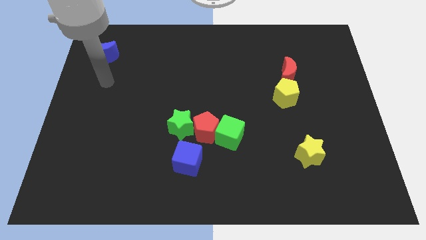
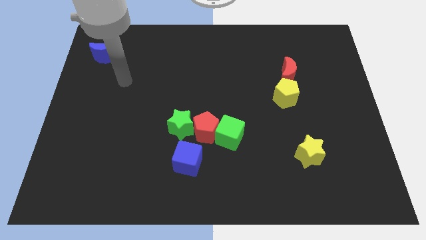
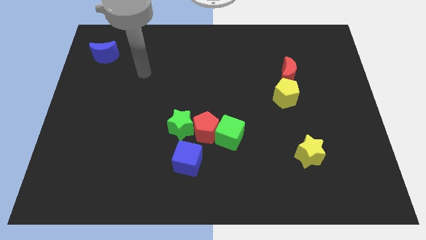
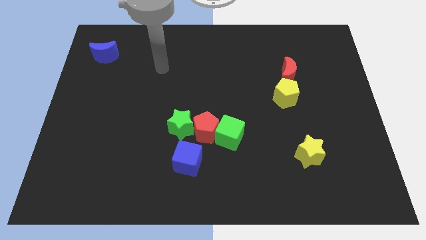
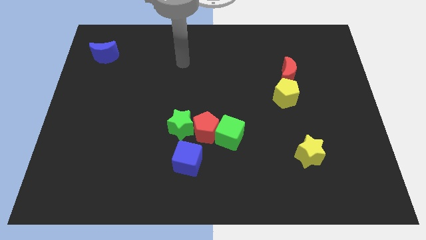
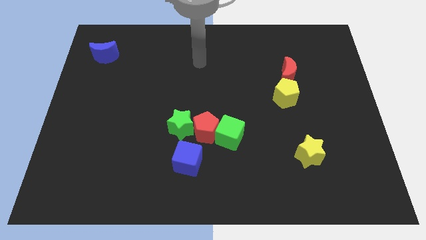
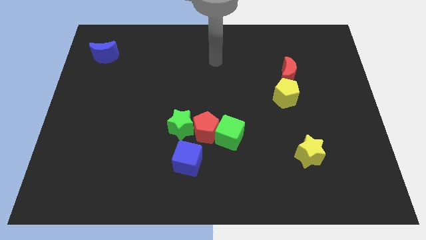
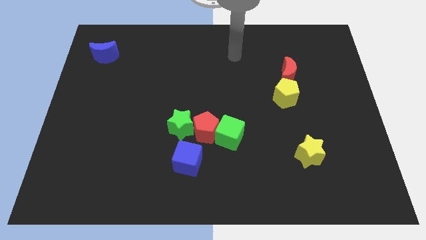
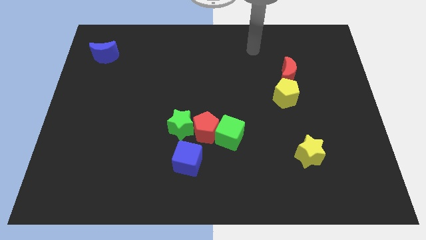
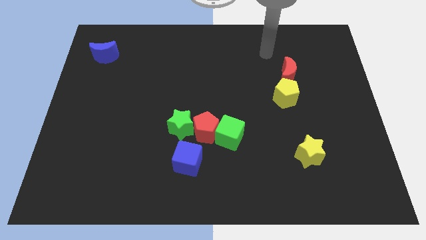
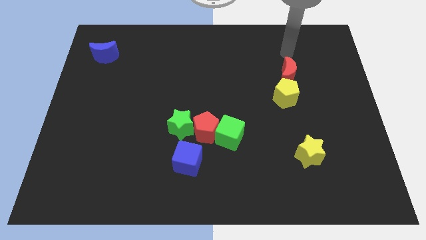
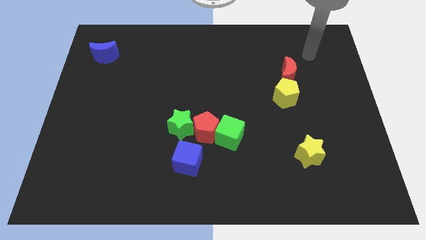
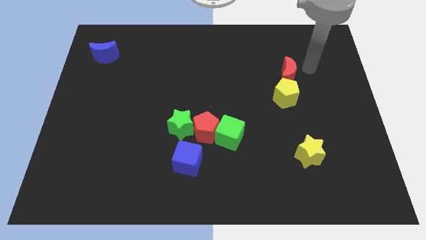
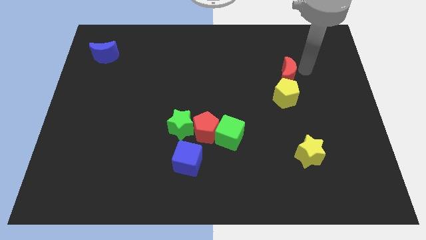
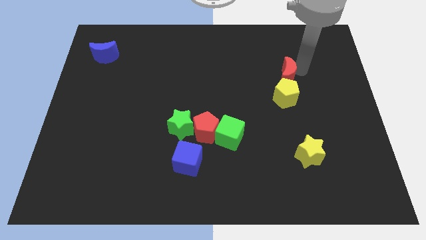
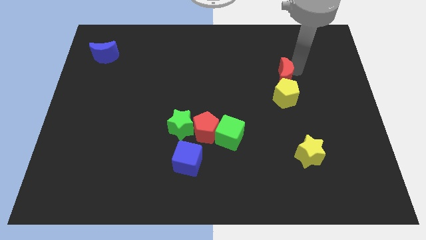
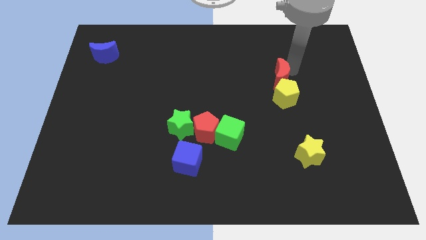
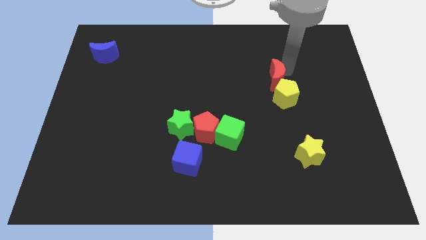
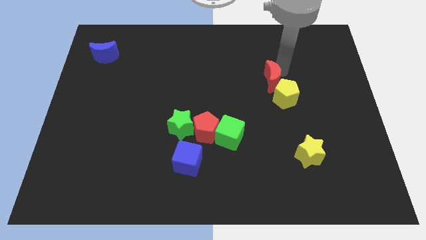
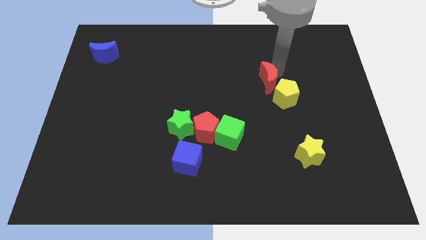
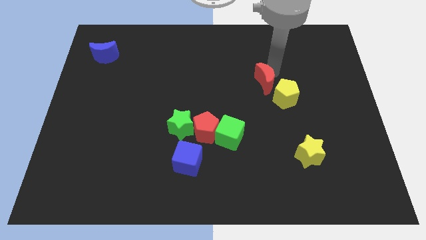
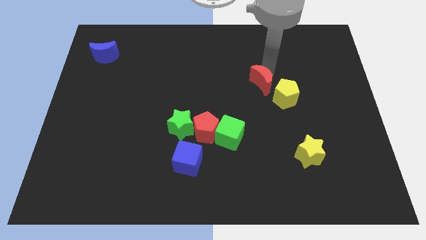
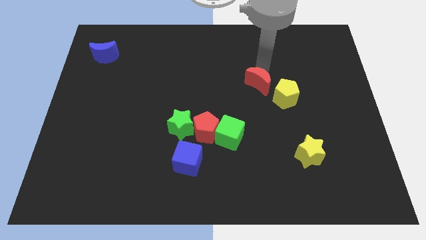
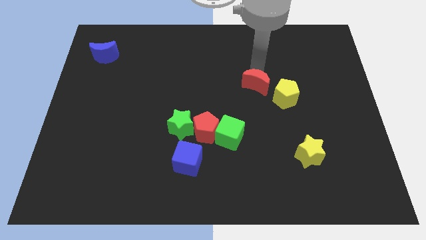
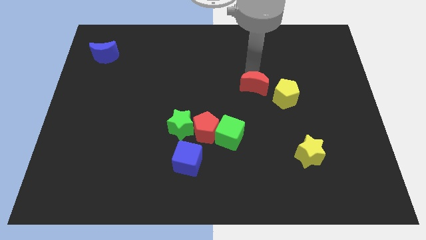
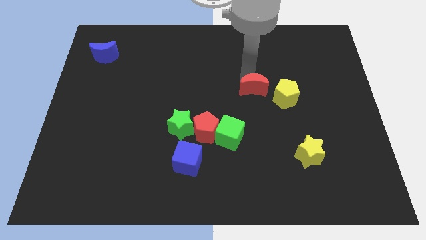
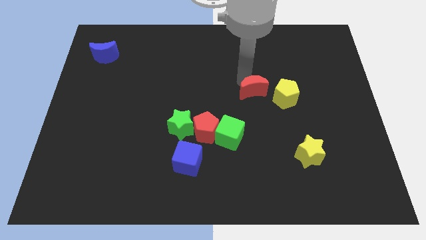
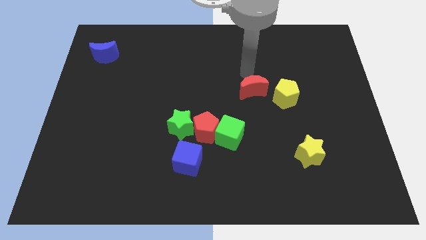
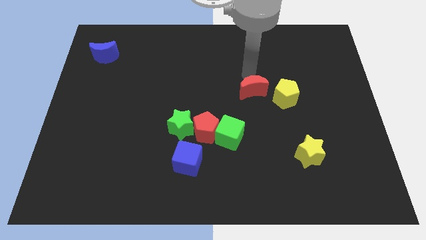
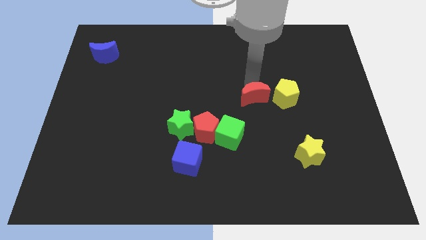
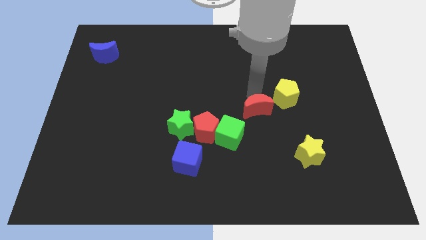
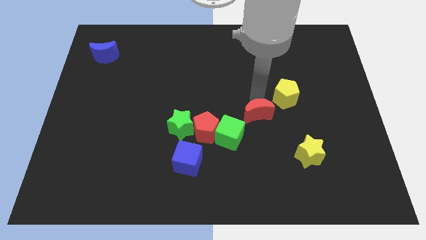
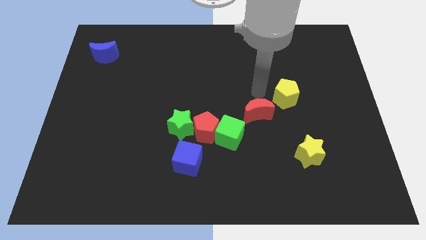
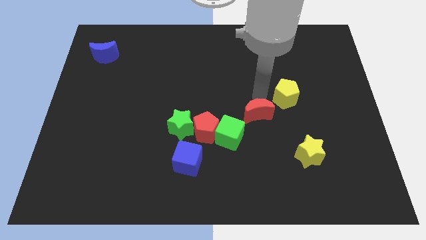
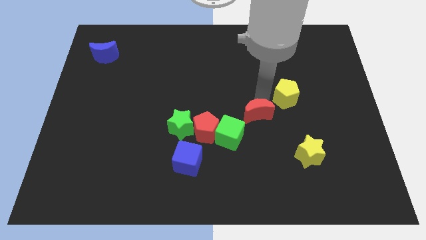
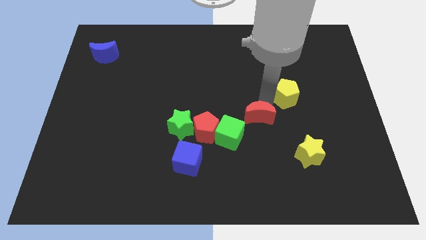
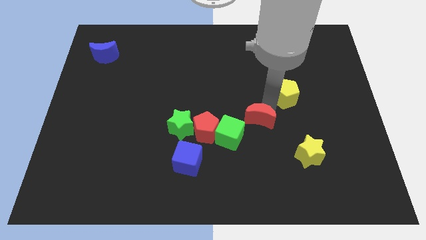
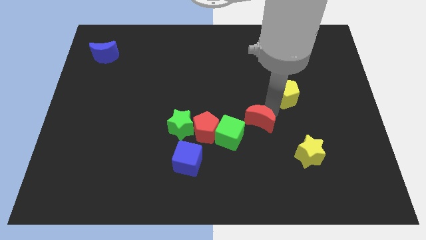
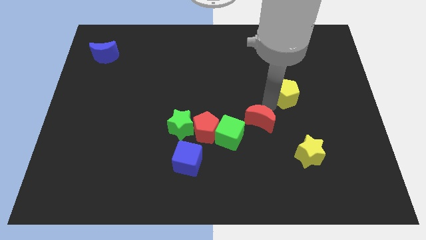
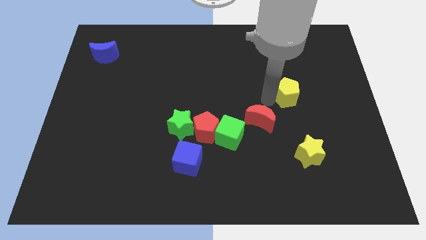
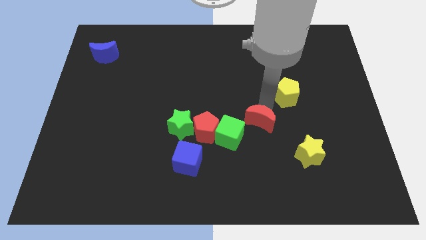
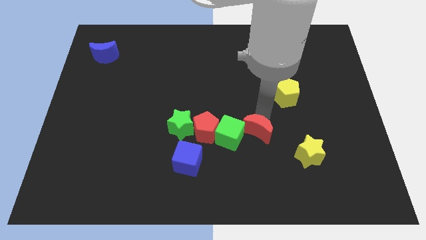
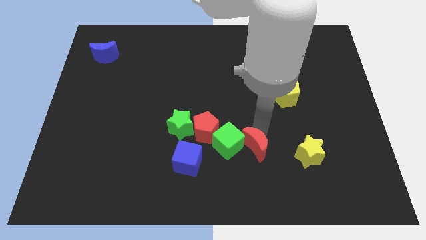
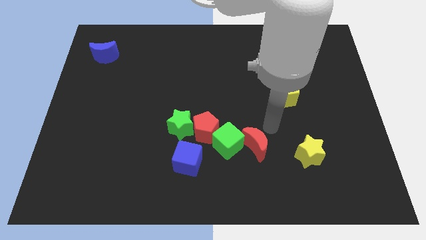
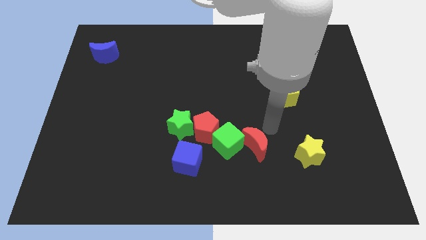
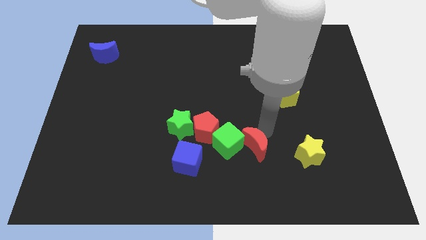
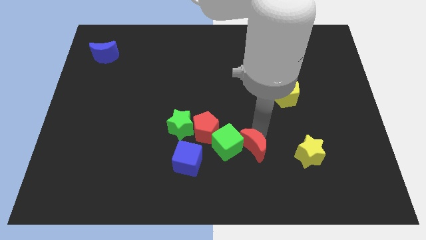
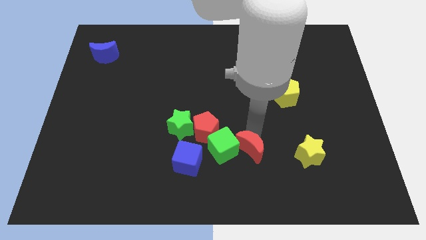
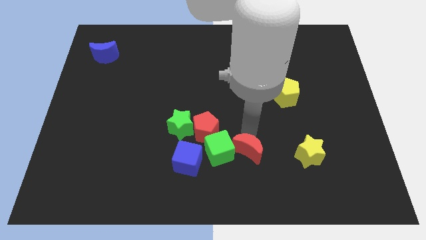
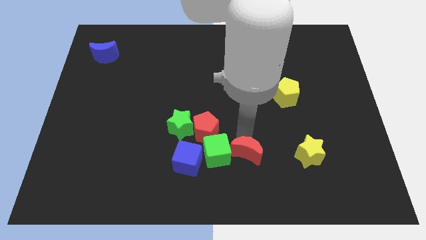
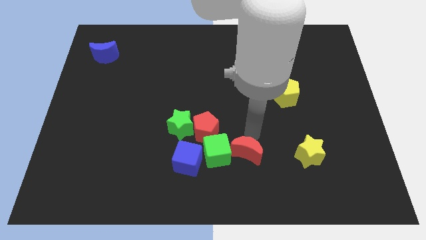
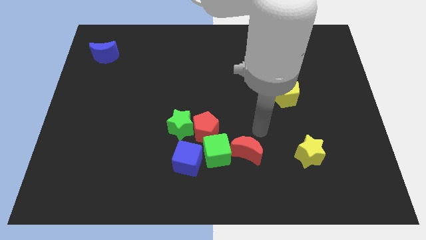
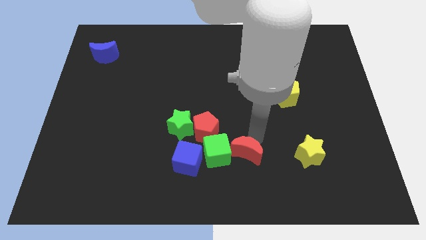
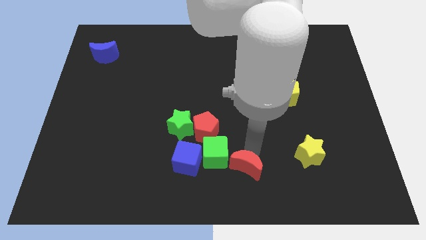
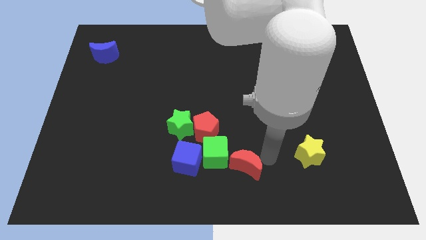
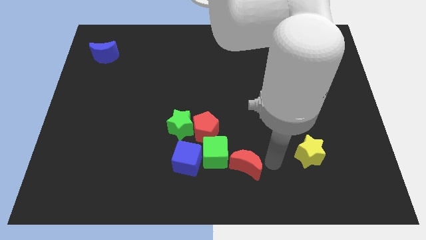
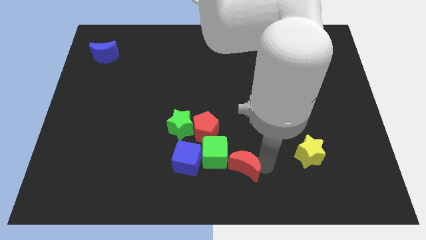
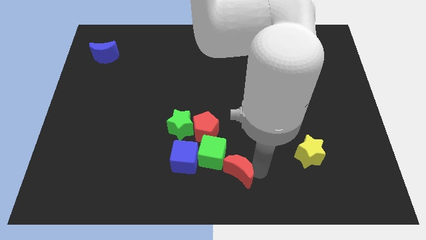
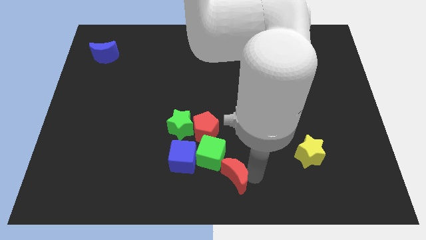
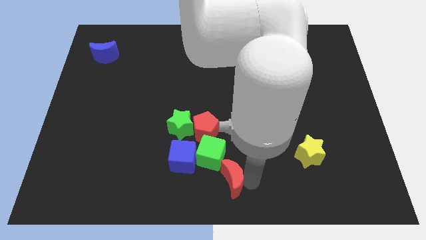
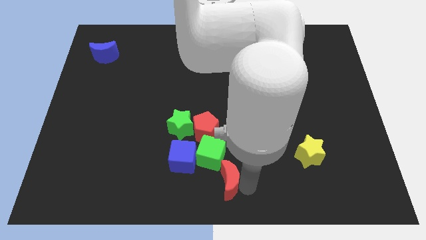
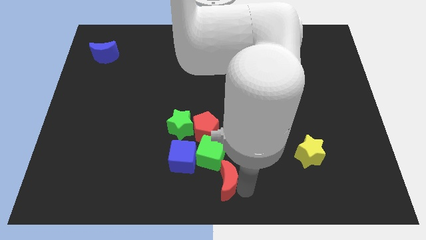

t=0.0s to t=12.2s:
slide the red moon below the red pentagon
